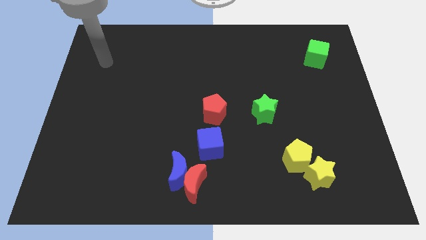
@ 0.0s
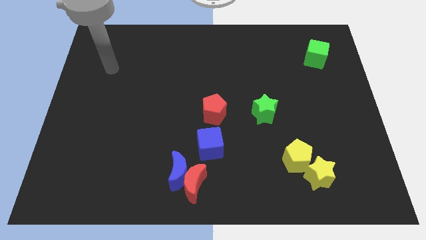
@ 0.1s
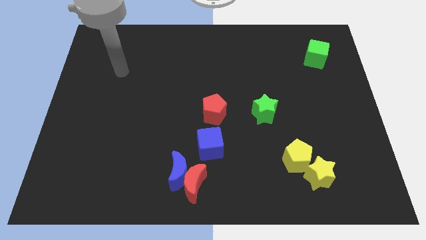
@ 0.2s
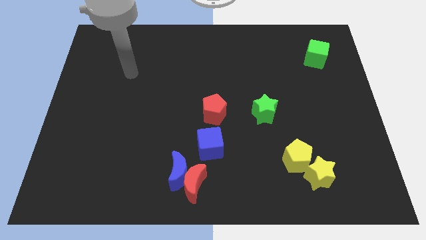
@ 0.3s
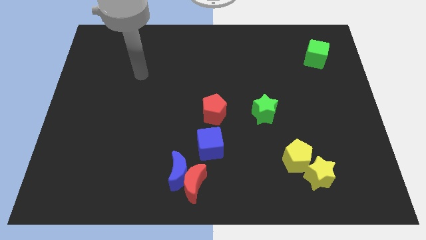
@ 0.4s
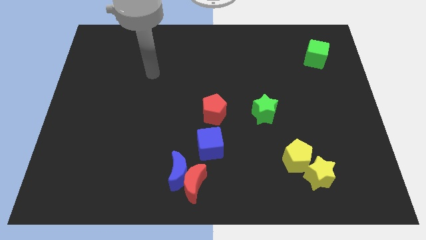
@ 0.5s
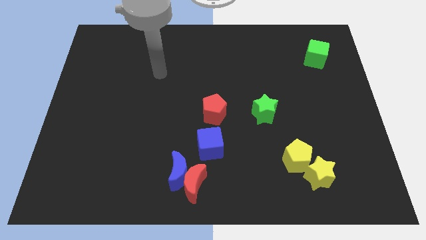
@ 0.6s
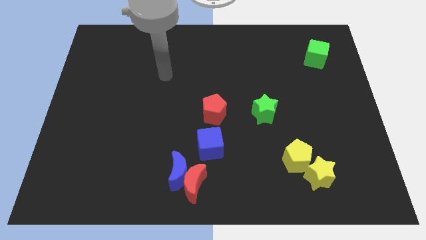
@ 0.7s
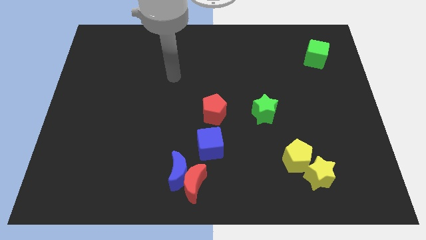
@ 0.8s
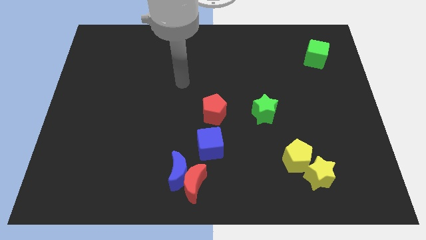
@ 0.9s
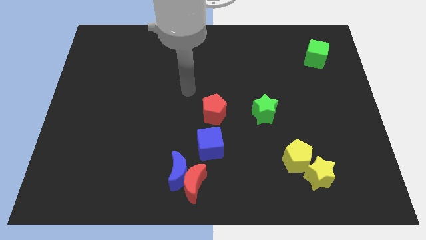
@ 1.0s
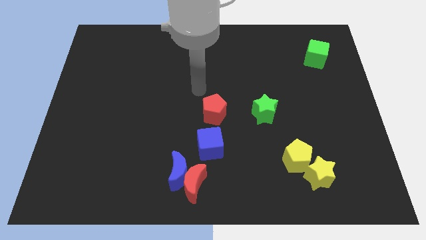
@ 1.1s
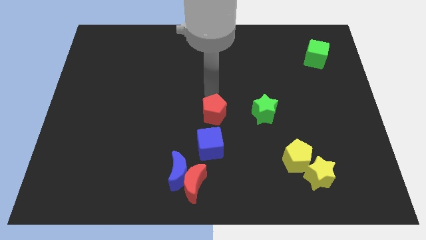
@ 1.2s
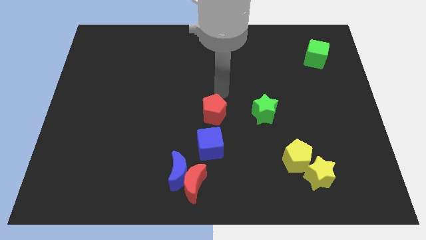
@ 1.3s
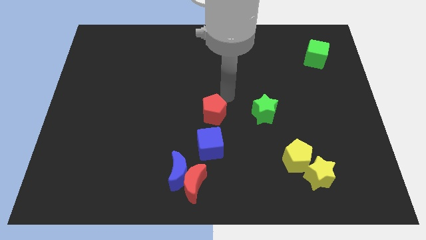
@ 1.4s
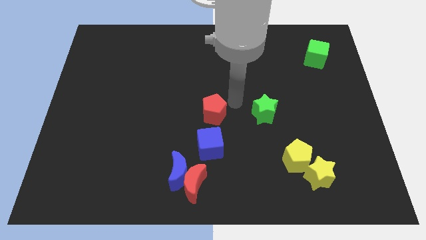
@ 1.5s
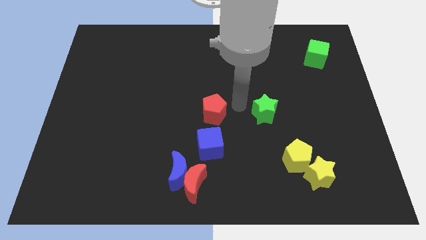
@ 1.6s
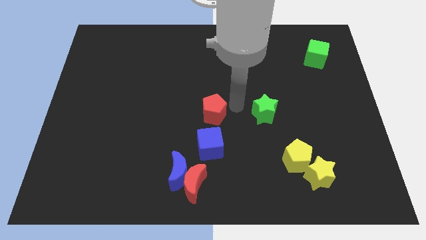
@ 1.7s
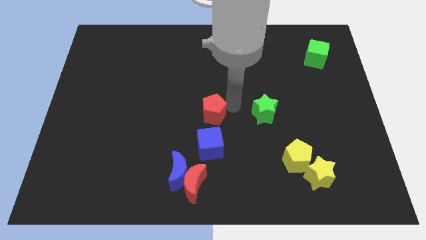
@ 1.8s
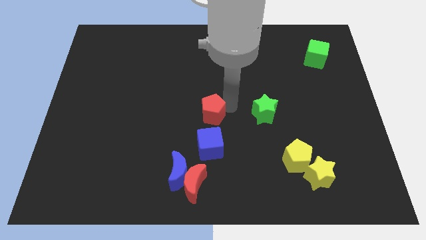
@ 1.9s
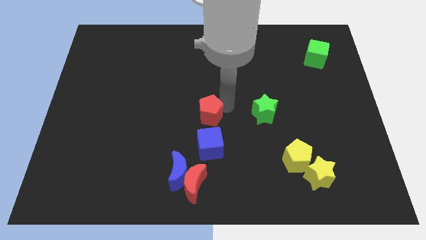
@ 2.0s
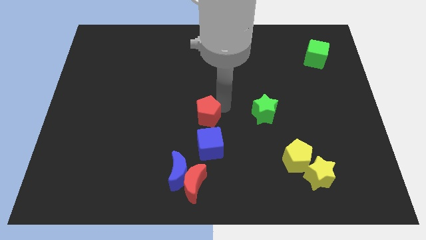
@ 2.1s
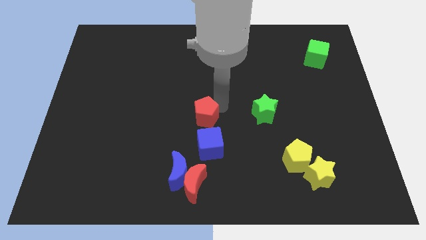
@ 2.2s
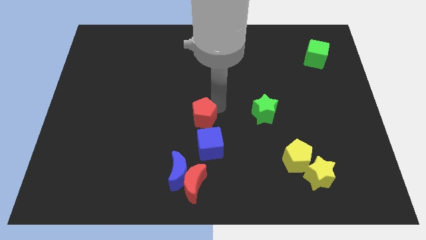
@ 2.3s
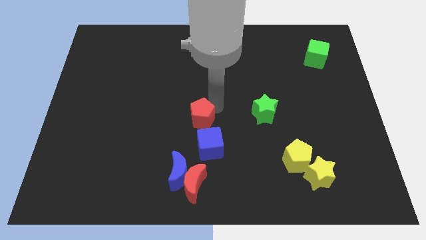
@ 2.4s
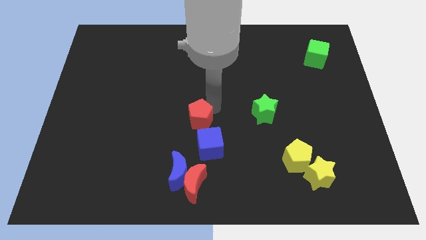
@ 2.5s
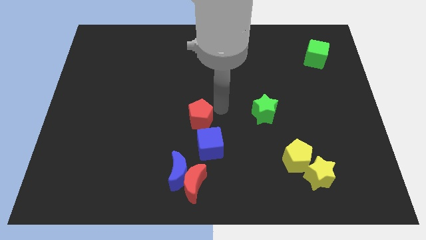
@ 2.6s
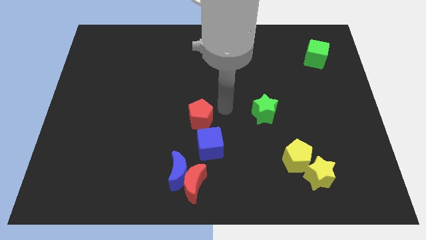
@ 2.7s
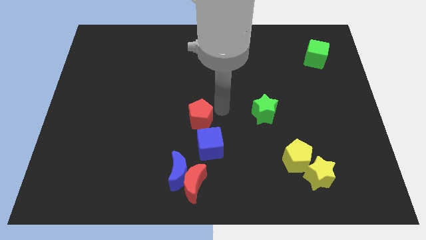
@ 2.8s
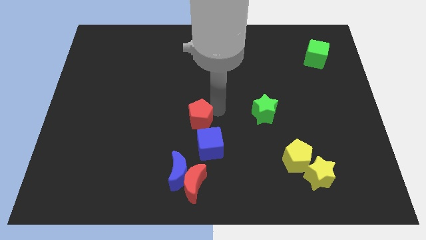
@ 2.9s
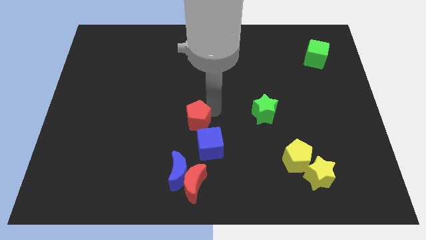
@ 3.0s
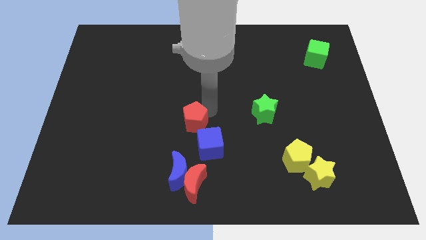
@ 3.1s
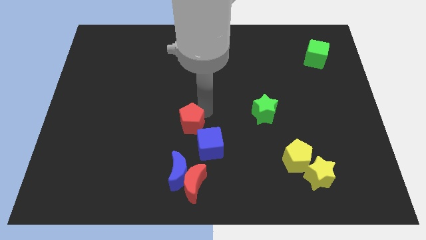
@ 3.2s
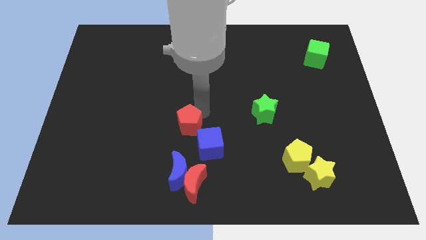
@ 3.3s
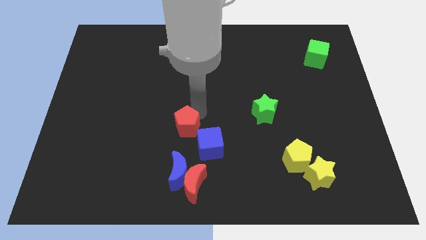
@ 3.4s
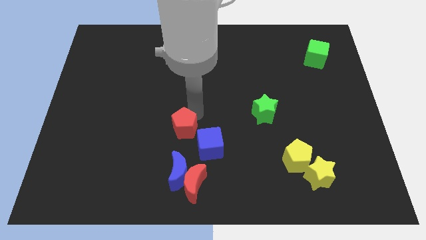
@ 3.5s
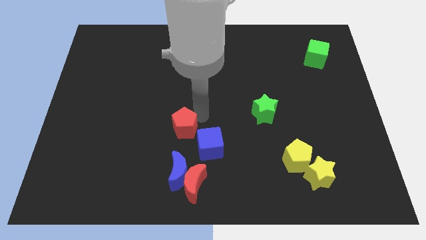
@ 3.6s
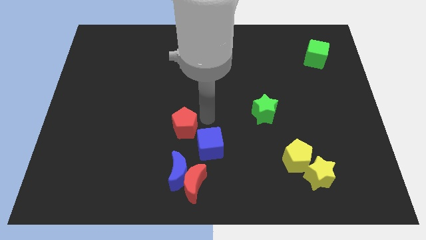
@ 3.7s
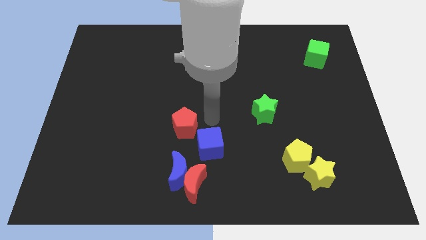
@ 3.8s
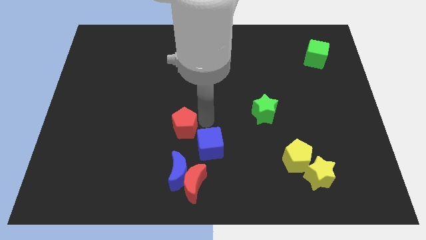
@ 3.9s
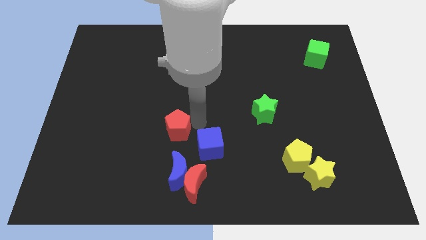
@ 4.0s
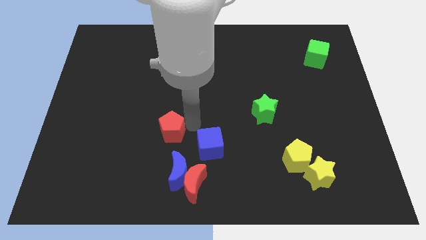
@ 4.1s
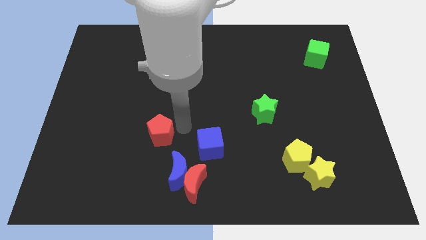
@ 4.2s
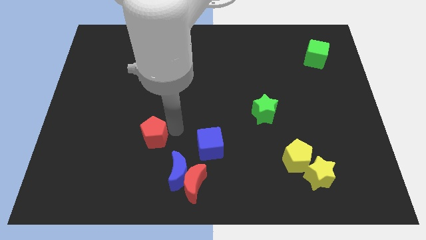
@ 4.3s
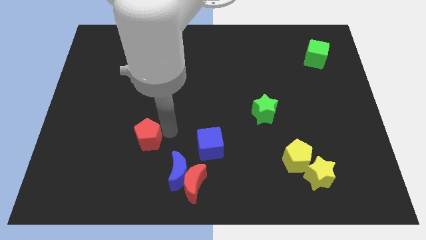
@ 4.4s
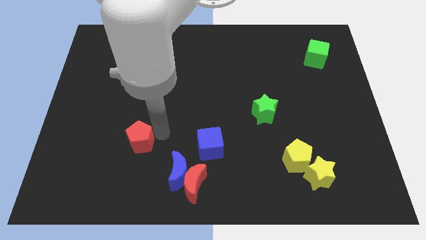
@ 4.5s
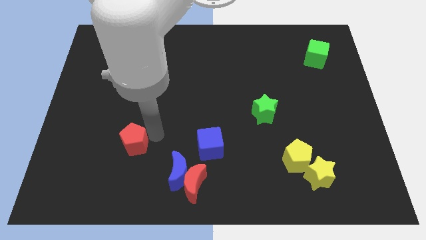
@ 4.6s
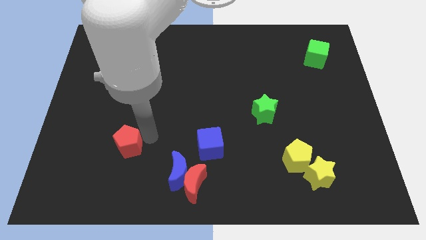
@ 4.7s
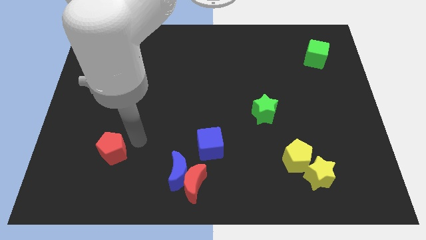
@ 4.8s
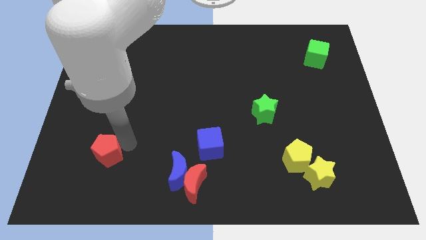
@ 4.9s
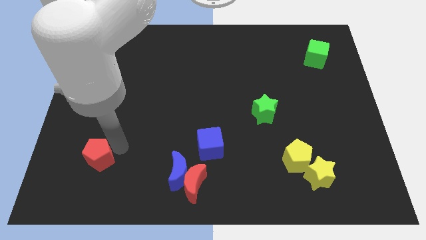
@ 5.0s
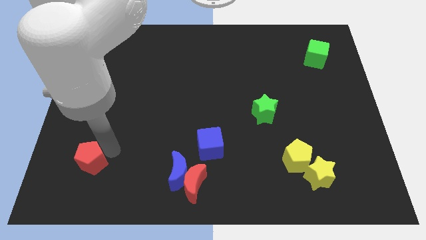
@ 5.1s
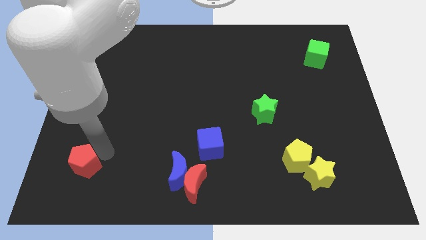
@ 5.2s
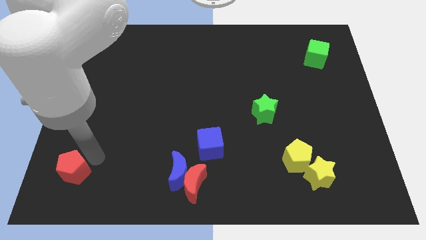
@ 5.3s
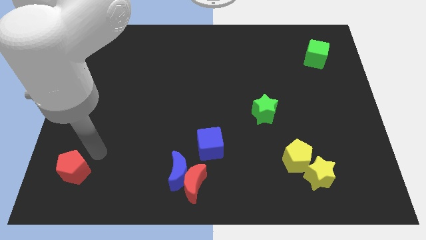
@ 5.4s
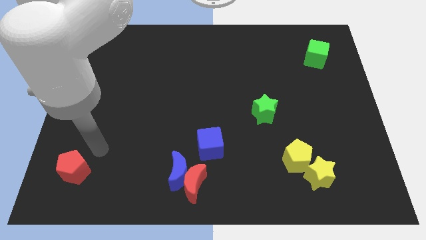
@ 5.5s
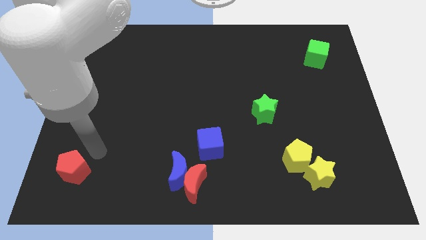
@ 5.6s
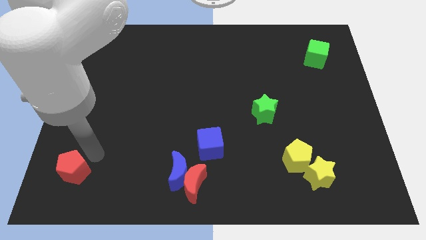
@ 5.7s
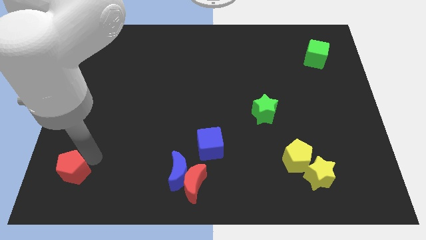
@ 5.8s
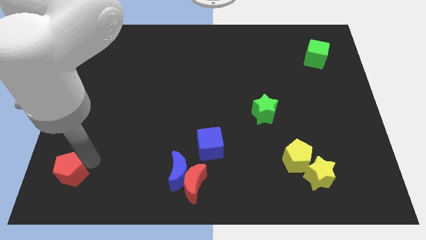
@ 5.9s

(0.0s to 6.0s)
move the red pentagon to the bottom left of the board

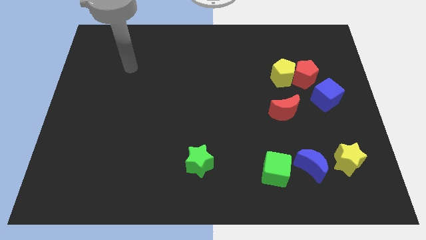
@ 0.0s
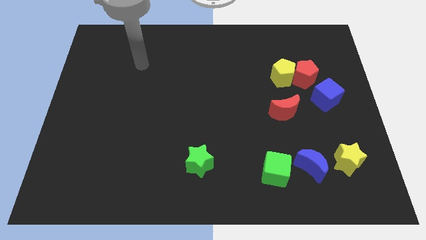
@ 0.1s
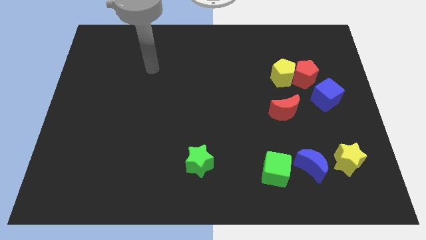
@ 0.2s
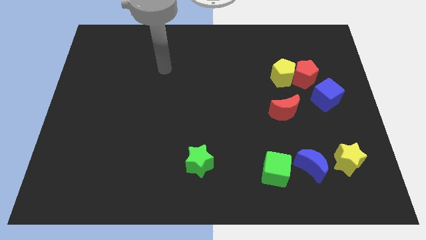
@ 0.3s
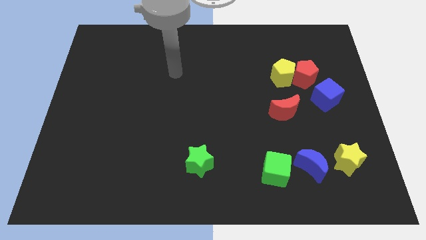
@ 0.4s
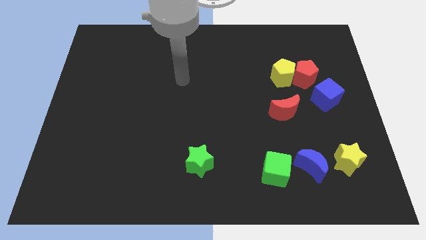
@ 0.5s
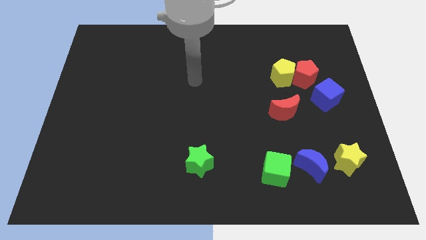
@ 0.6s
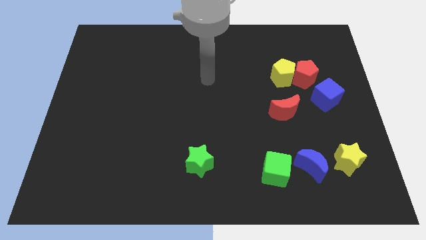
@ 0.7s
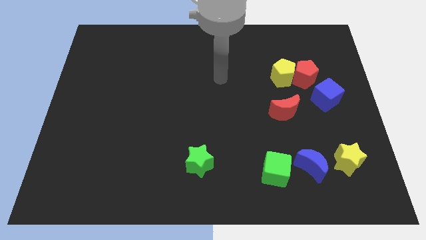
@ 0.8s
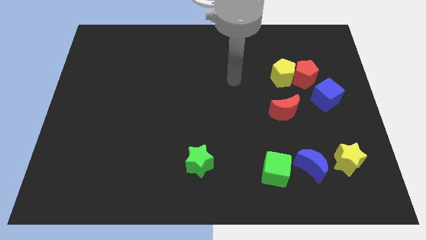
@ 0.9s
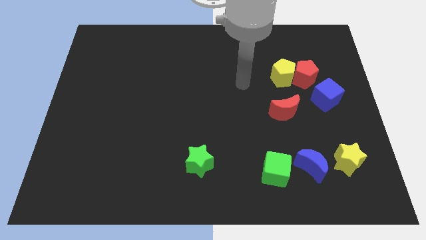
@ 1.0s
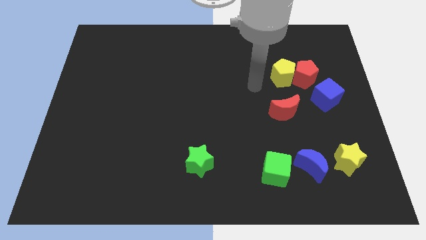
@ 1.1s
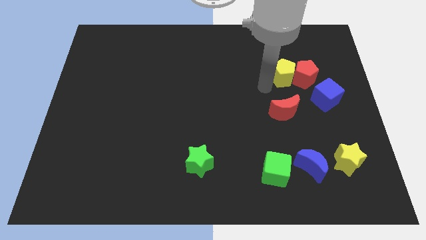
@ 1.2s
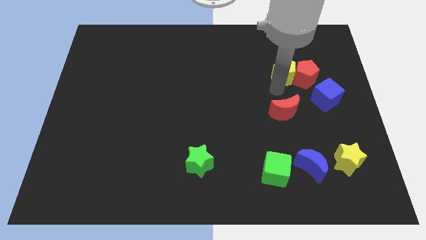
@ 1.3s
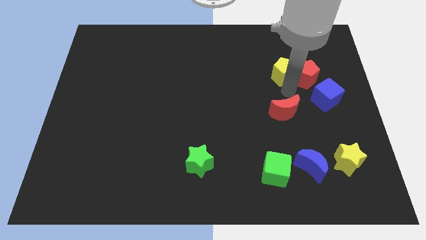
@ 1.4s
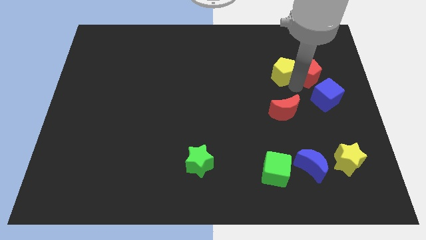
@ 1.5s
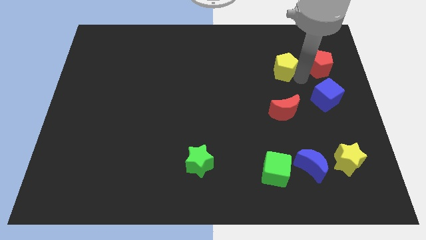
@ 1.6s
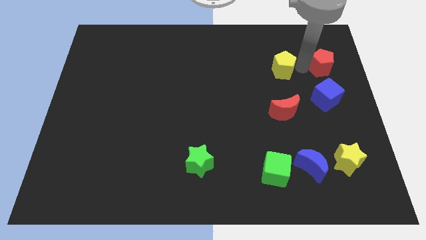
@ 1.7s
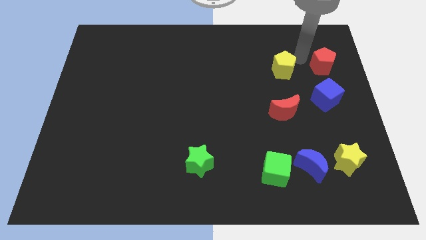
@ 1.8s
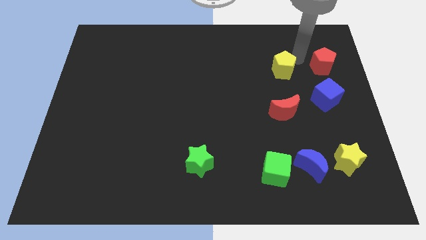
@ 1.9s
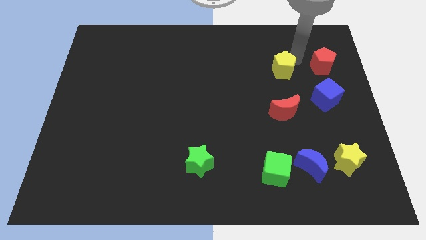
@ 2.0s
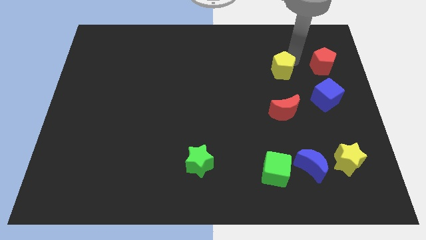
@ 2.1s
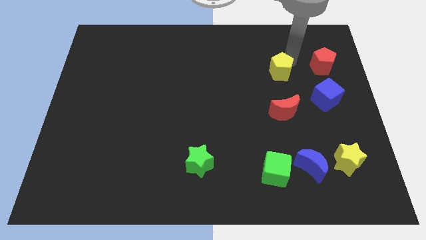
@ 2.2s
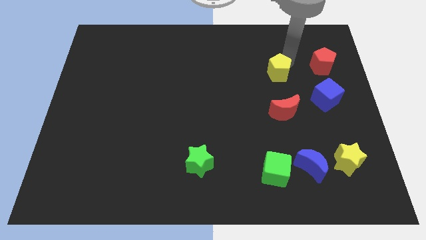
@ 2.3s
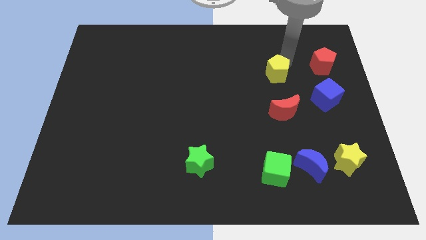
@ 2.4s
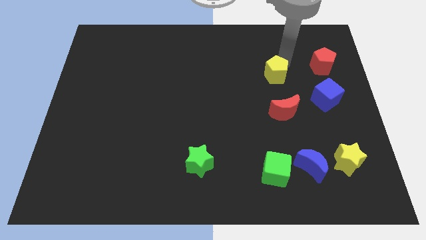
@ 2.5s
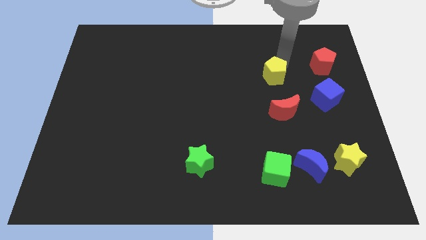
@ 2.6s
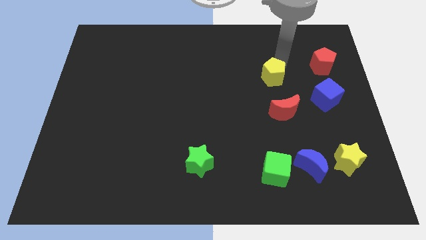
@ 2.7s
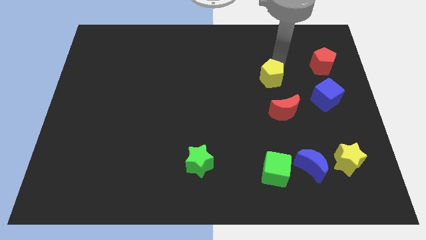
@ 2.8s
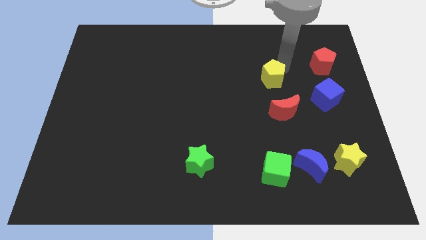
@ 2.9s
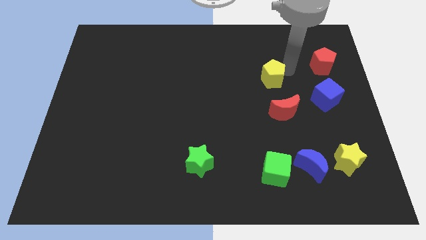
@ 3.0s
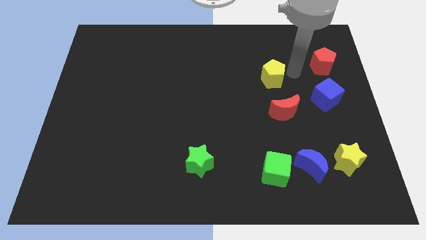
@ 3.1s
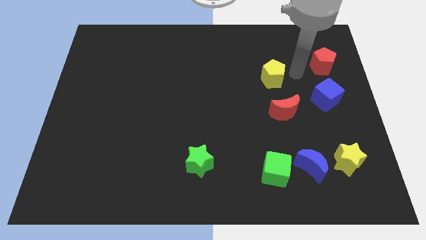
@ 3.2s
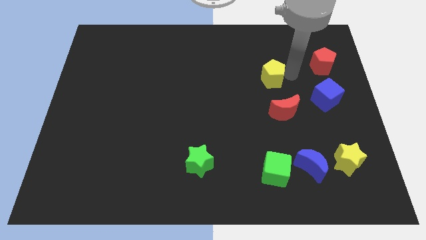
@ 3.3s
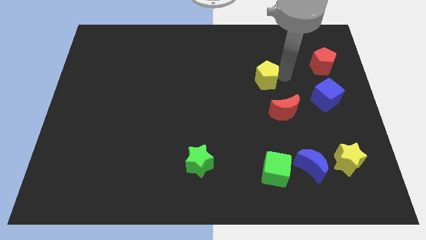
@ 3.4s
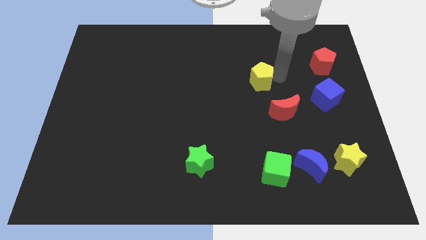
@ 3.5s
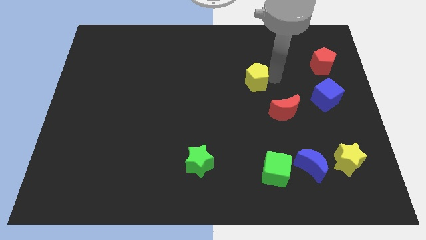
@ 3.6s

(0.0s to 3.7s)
slide the yellow pentagon to the center
